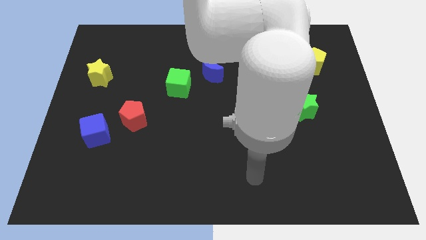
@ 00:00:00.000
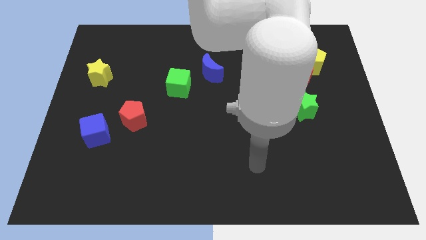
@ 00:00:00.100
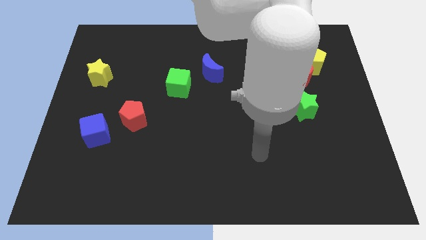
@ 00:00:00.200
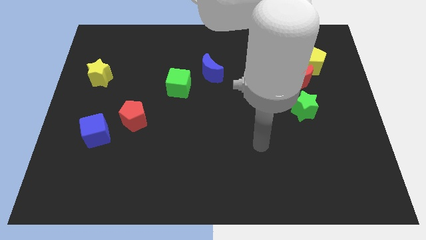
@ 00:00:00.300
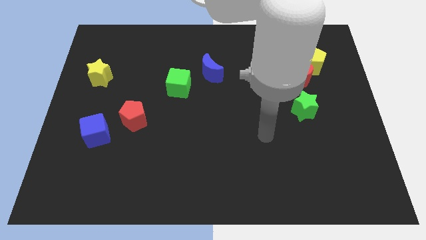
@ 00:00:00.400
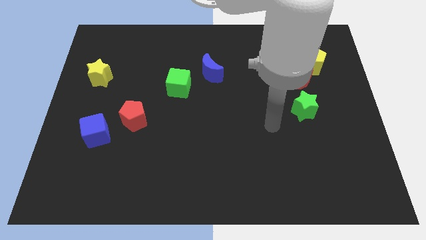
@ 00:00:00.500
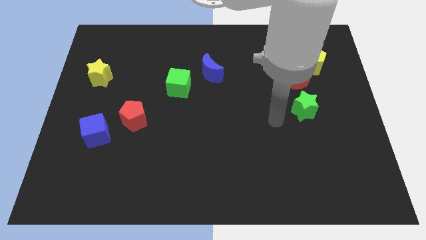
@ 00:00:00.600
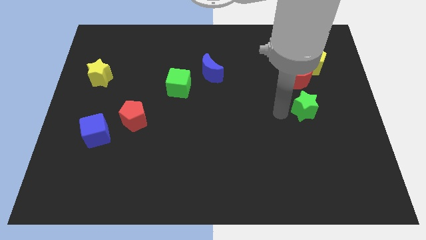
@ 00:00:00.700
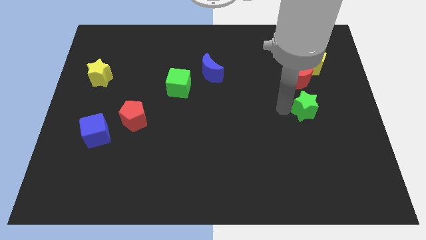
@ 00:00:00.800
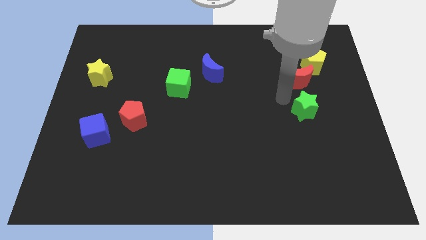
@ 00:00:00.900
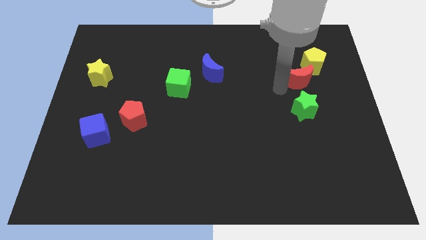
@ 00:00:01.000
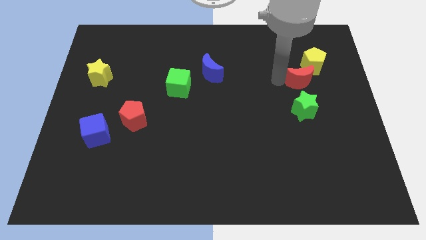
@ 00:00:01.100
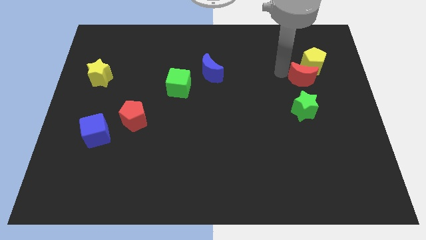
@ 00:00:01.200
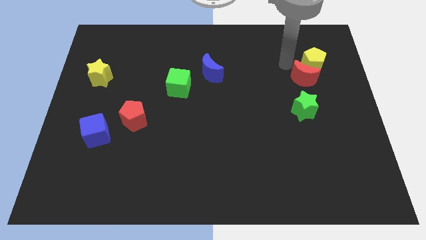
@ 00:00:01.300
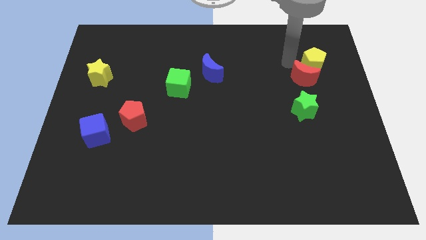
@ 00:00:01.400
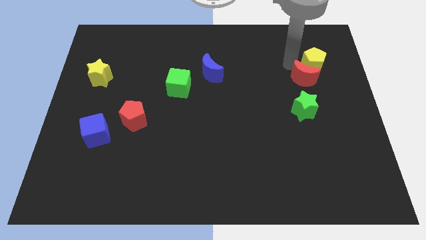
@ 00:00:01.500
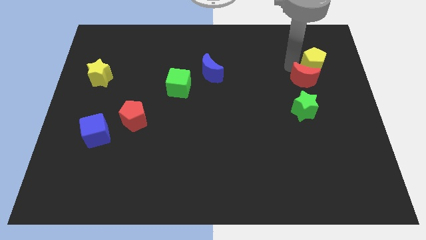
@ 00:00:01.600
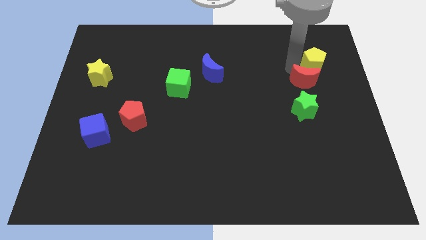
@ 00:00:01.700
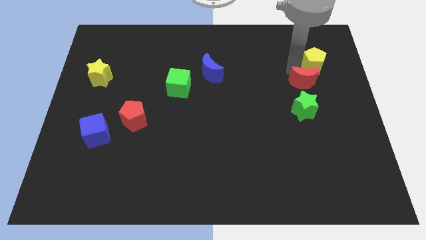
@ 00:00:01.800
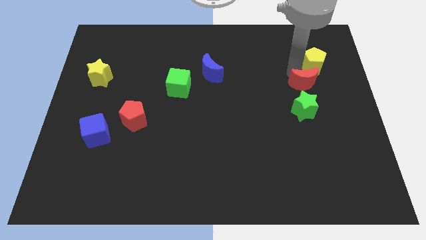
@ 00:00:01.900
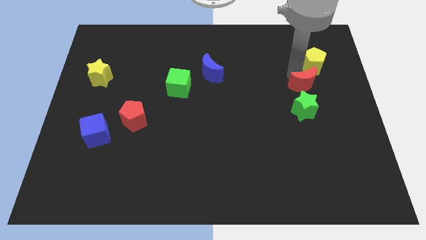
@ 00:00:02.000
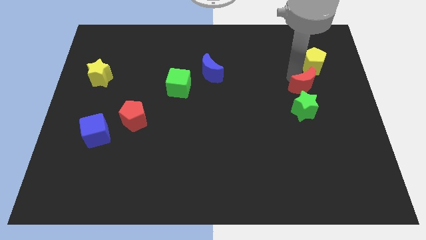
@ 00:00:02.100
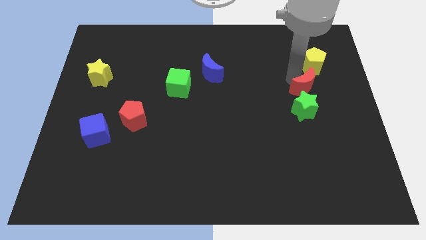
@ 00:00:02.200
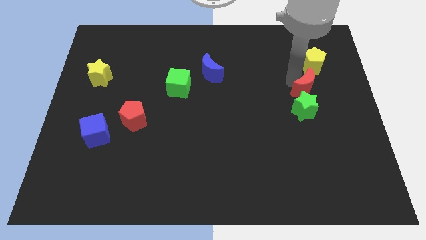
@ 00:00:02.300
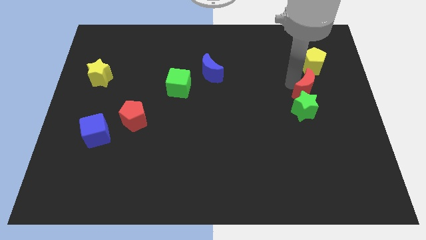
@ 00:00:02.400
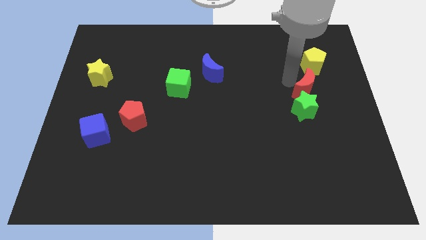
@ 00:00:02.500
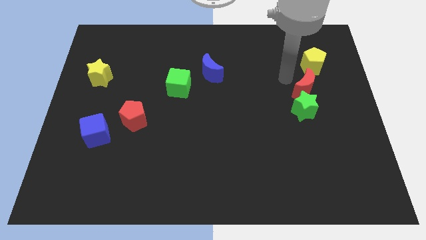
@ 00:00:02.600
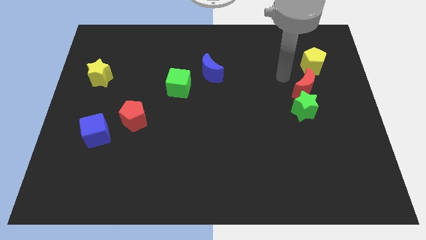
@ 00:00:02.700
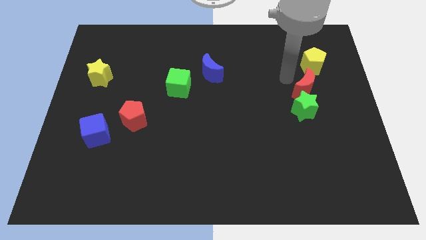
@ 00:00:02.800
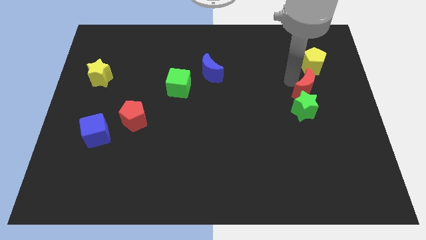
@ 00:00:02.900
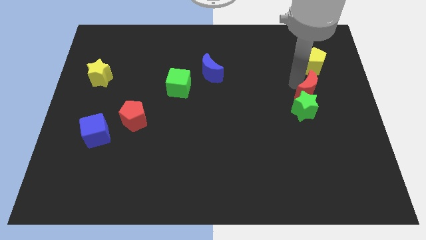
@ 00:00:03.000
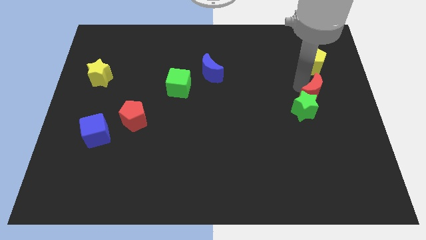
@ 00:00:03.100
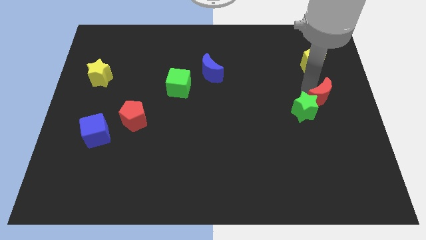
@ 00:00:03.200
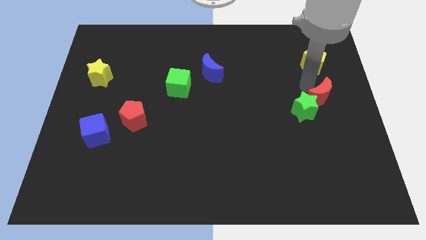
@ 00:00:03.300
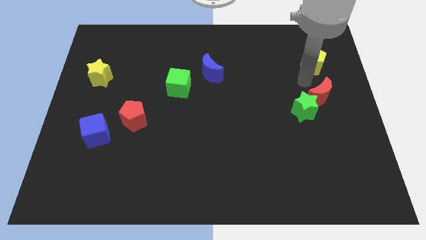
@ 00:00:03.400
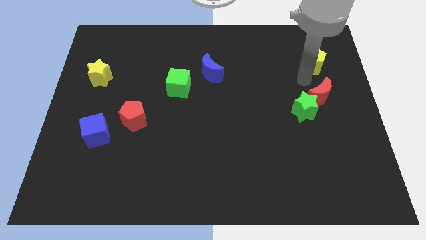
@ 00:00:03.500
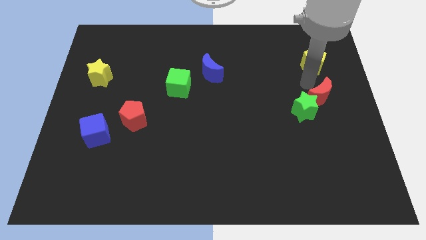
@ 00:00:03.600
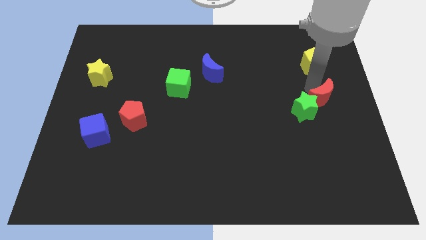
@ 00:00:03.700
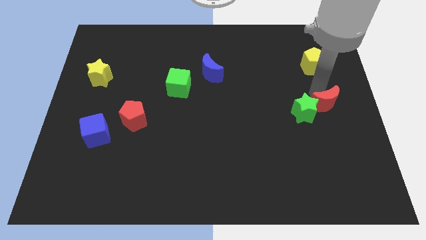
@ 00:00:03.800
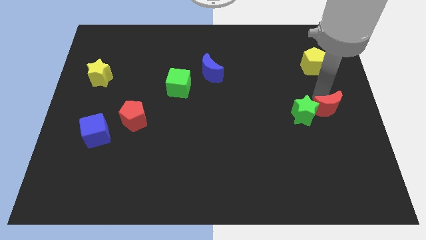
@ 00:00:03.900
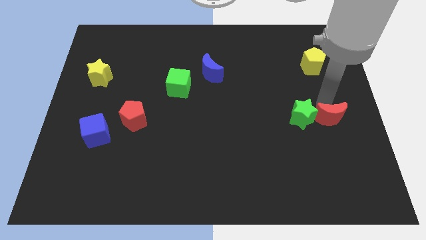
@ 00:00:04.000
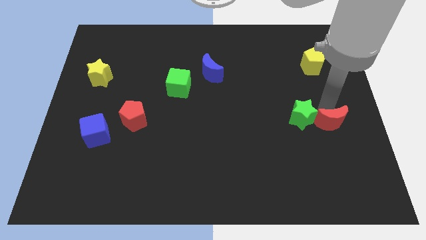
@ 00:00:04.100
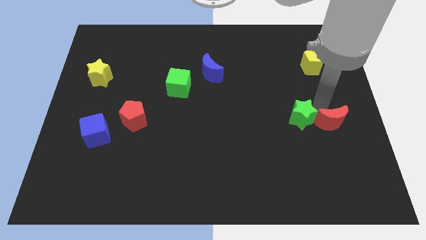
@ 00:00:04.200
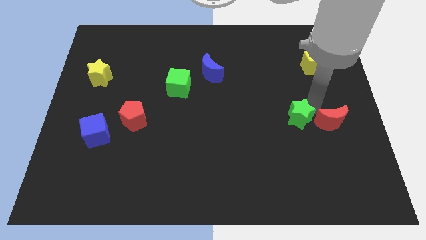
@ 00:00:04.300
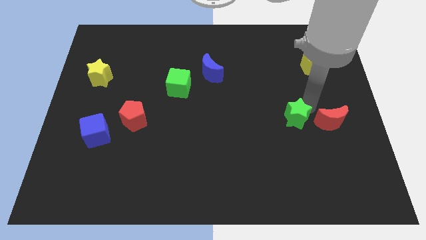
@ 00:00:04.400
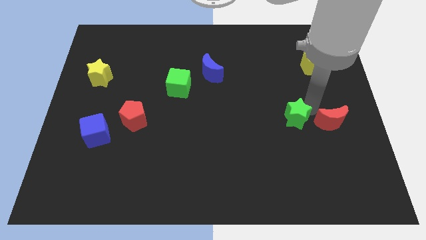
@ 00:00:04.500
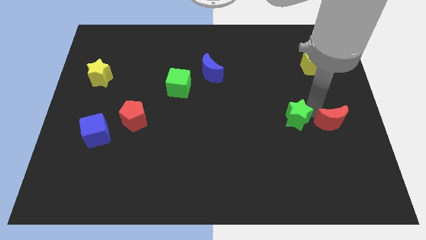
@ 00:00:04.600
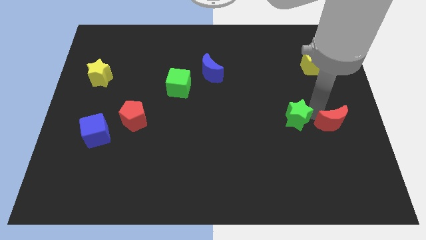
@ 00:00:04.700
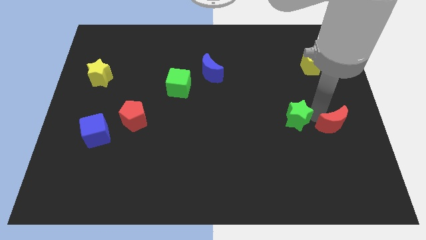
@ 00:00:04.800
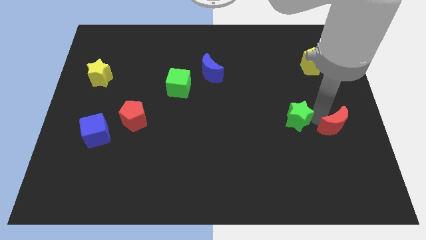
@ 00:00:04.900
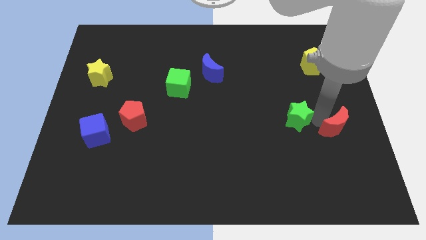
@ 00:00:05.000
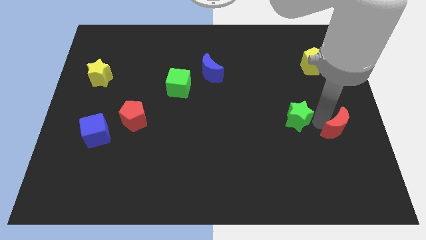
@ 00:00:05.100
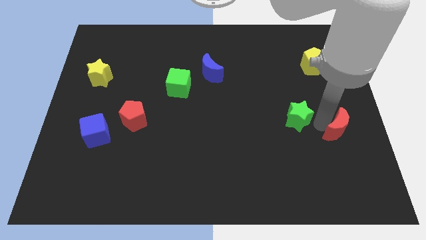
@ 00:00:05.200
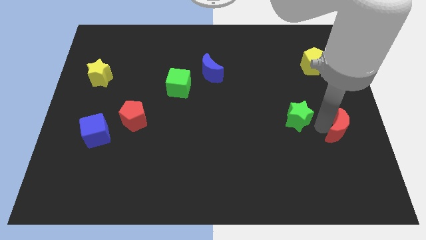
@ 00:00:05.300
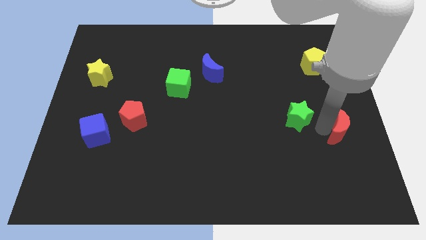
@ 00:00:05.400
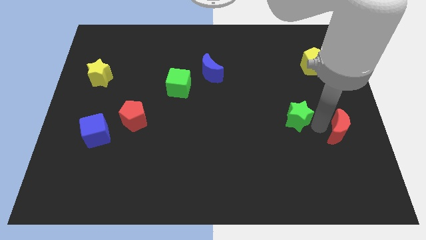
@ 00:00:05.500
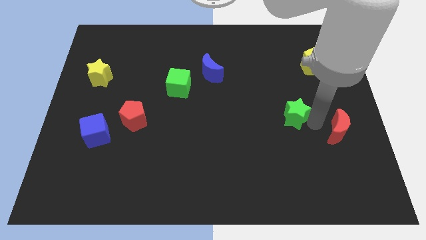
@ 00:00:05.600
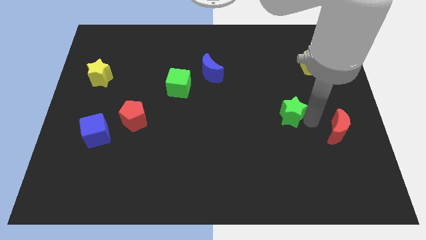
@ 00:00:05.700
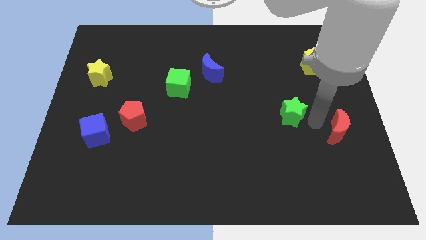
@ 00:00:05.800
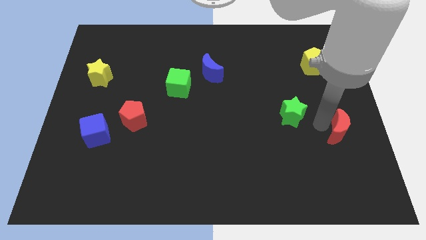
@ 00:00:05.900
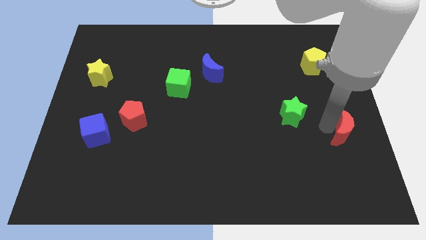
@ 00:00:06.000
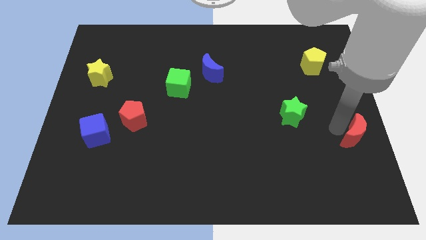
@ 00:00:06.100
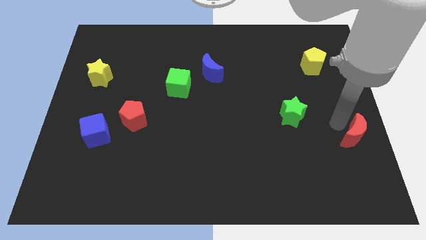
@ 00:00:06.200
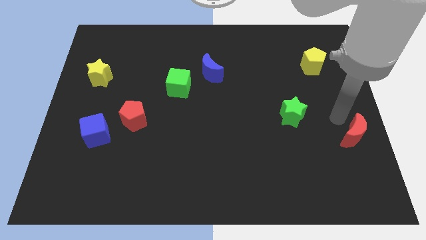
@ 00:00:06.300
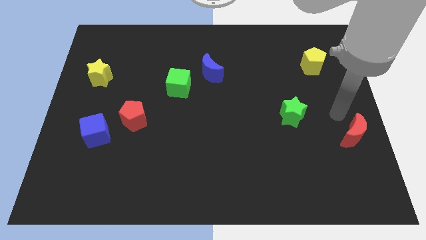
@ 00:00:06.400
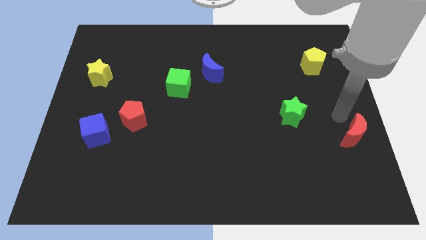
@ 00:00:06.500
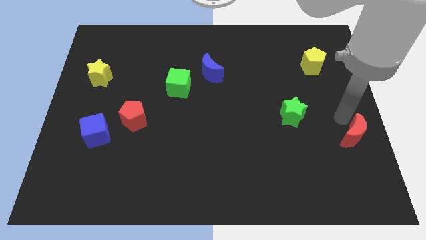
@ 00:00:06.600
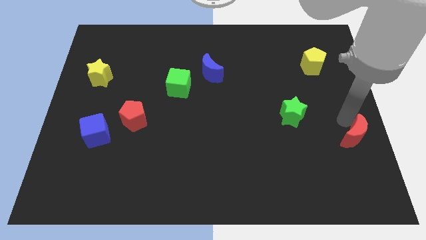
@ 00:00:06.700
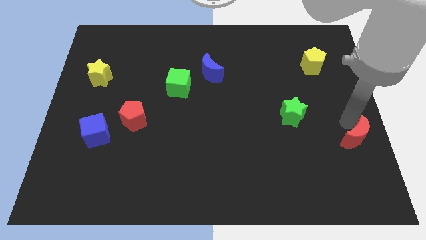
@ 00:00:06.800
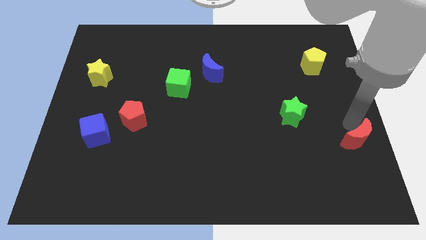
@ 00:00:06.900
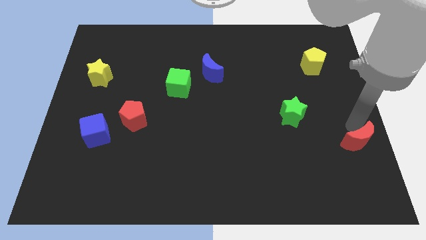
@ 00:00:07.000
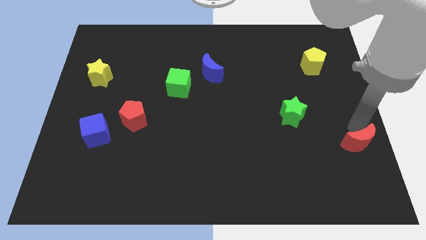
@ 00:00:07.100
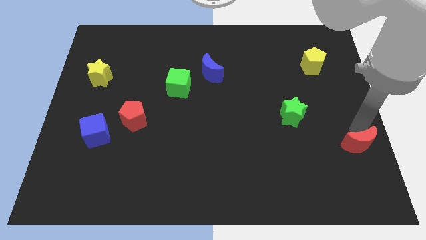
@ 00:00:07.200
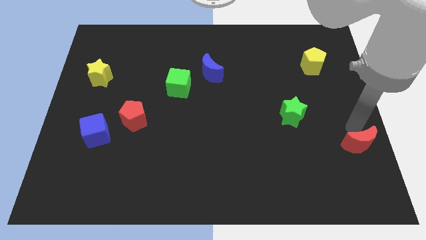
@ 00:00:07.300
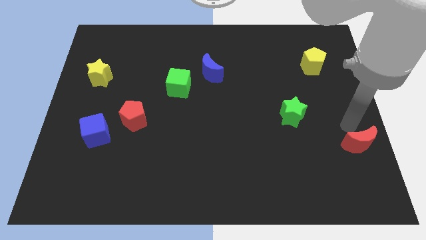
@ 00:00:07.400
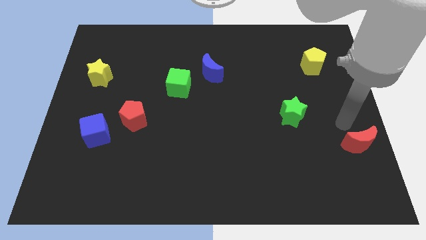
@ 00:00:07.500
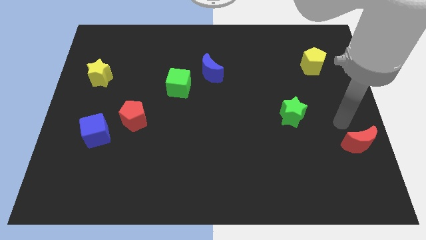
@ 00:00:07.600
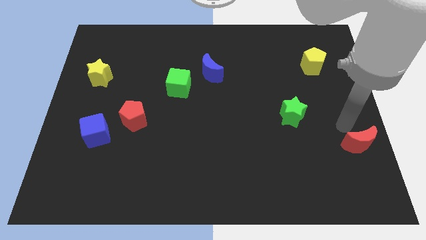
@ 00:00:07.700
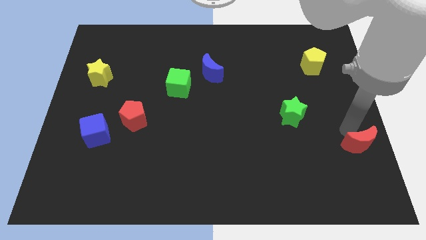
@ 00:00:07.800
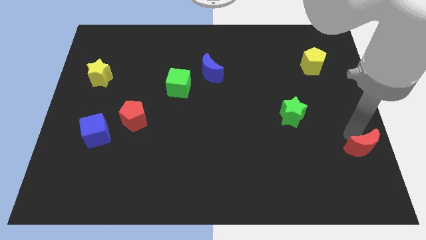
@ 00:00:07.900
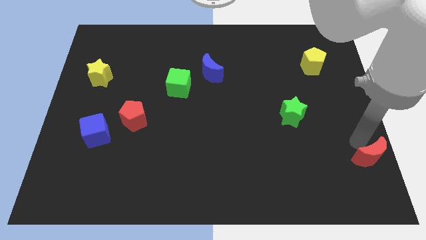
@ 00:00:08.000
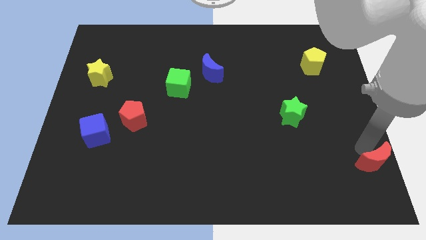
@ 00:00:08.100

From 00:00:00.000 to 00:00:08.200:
slide the red moon to the bottom right of the board
